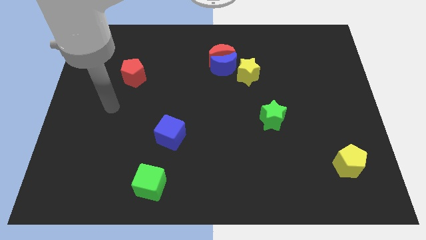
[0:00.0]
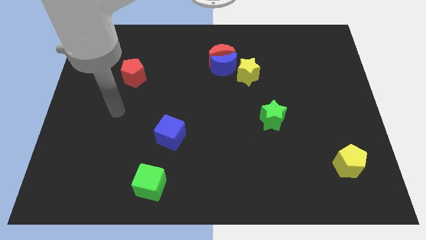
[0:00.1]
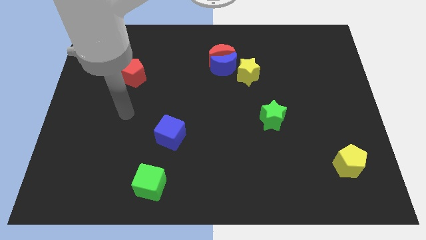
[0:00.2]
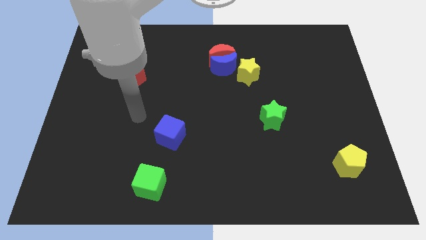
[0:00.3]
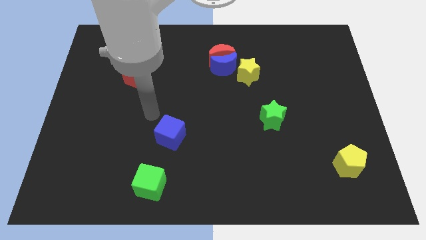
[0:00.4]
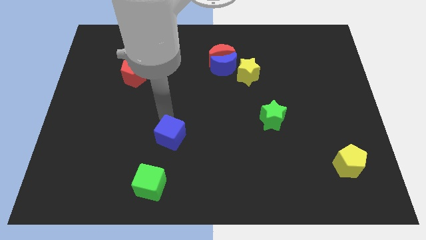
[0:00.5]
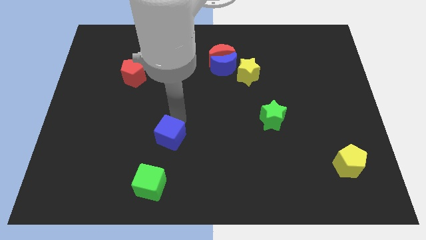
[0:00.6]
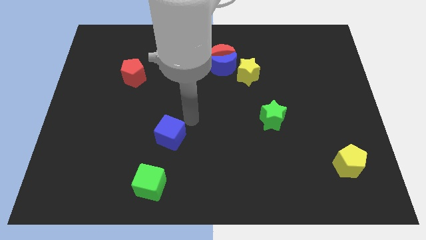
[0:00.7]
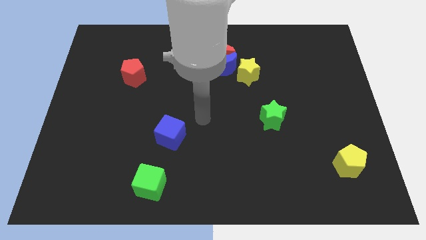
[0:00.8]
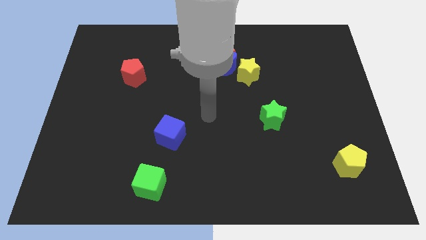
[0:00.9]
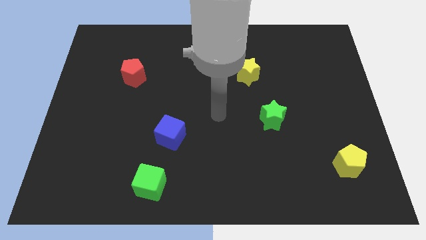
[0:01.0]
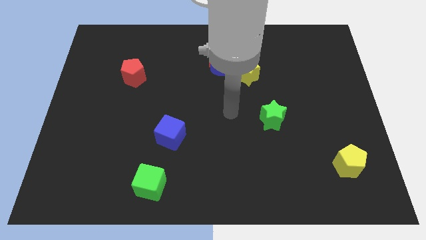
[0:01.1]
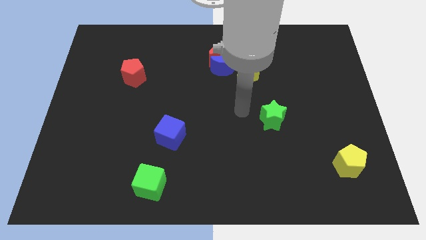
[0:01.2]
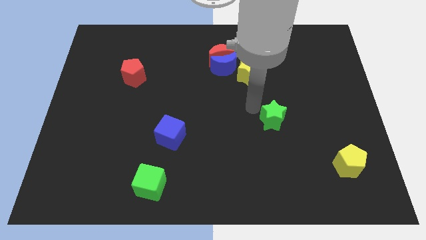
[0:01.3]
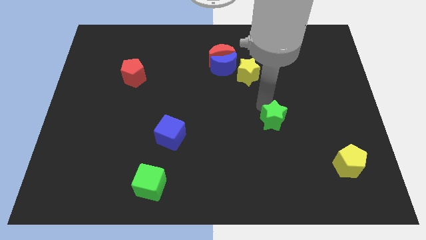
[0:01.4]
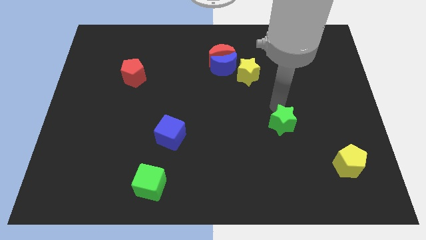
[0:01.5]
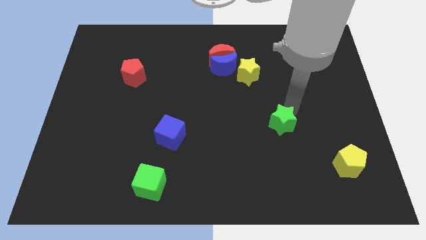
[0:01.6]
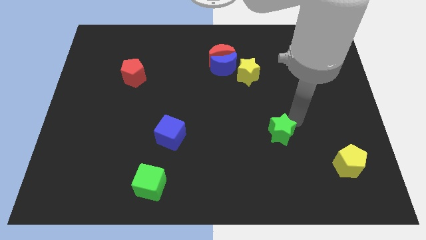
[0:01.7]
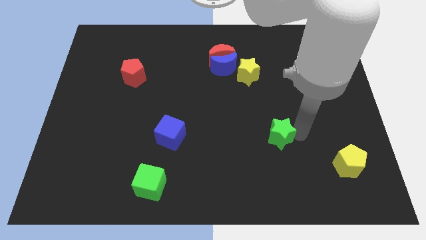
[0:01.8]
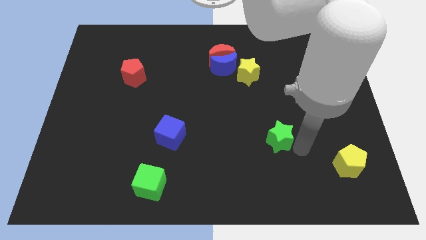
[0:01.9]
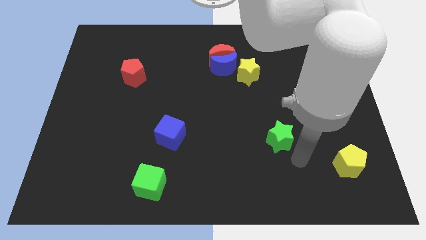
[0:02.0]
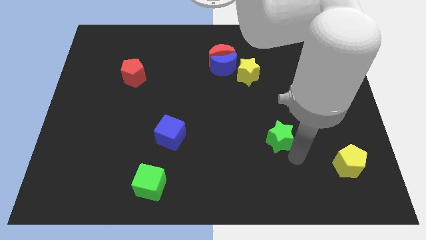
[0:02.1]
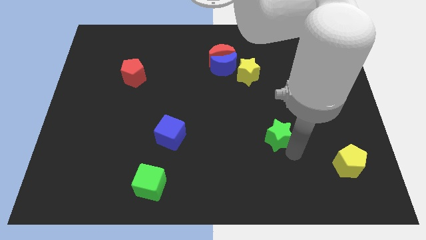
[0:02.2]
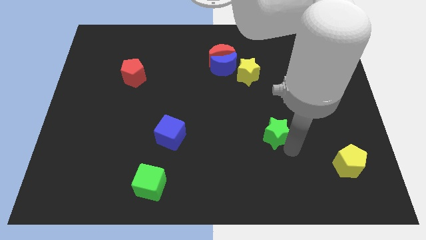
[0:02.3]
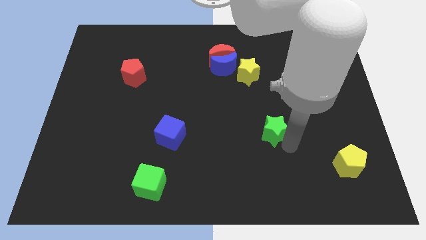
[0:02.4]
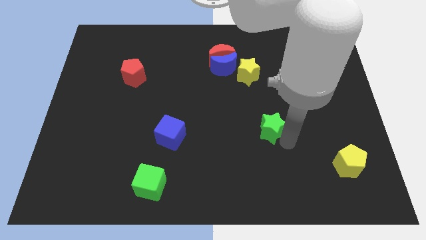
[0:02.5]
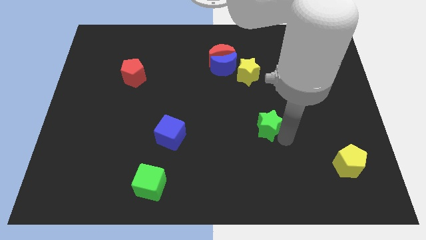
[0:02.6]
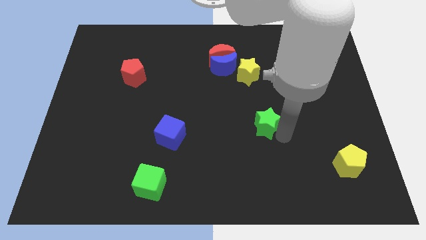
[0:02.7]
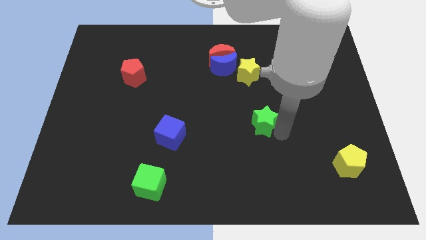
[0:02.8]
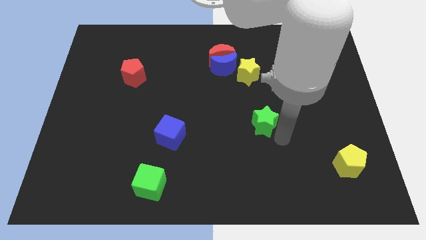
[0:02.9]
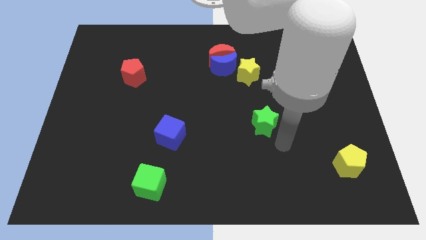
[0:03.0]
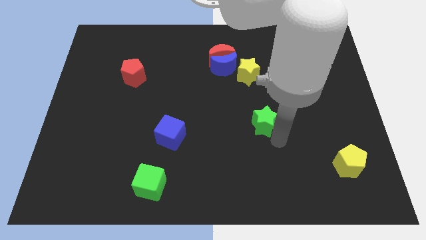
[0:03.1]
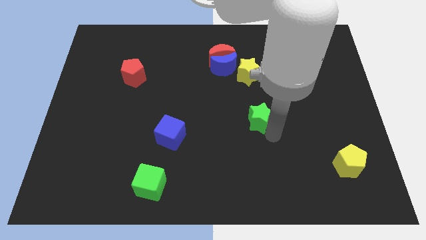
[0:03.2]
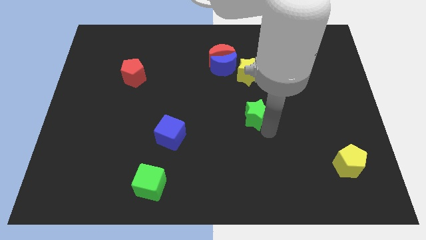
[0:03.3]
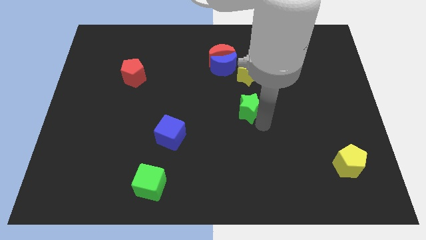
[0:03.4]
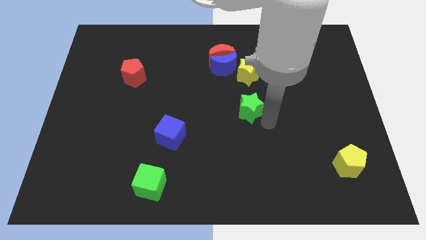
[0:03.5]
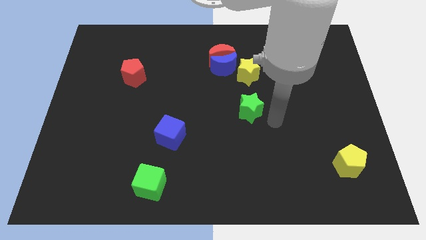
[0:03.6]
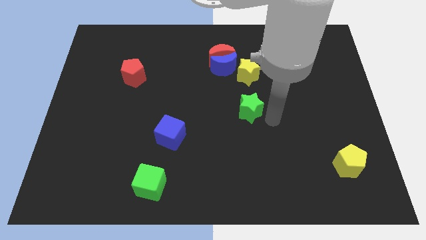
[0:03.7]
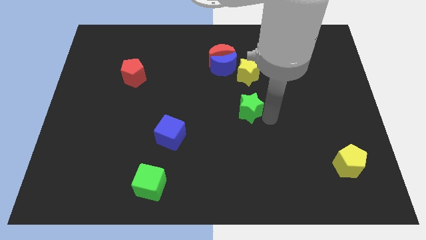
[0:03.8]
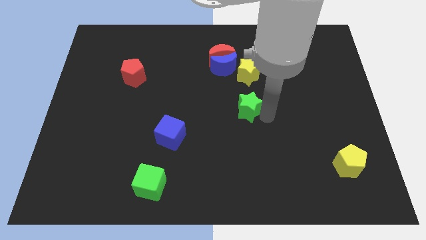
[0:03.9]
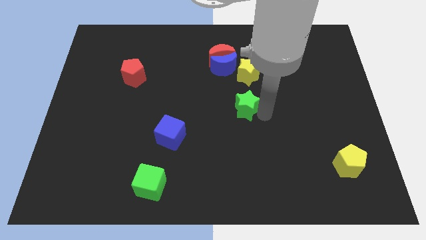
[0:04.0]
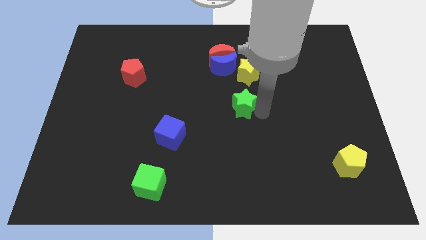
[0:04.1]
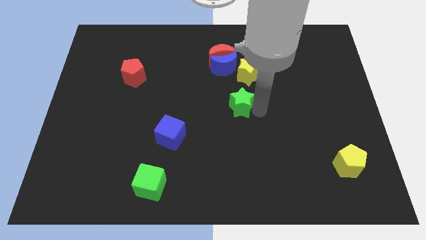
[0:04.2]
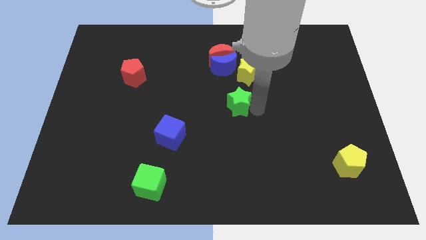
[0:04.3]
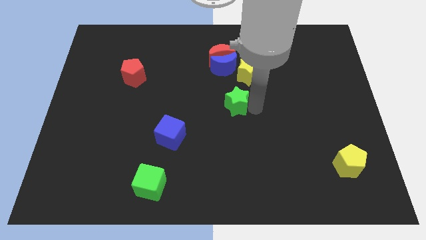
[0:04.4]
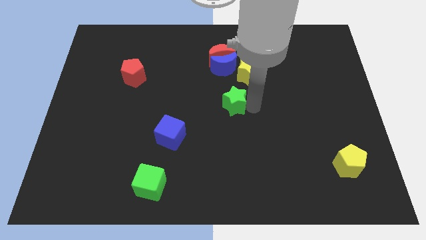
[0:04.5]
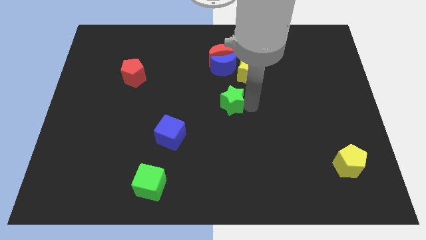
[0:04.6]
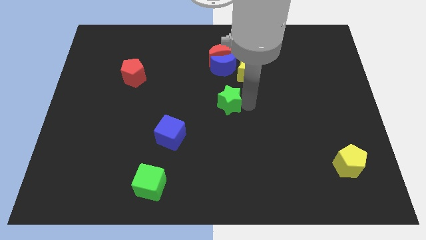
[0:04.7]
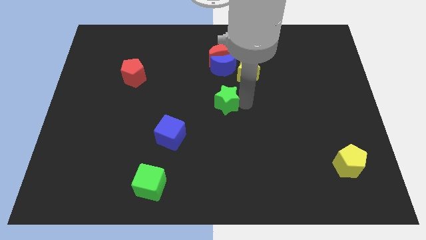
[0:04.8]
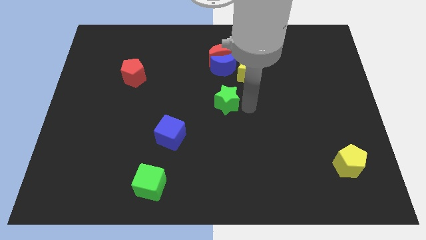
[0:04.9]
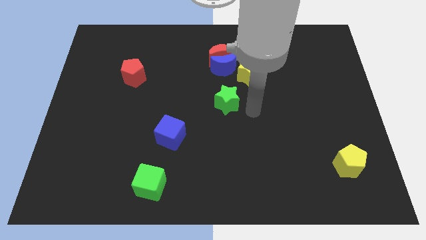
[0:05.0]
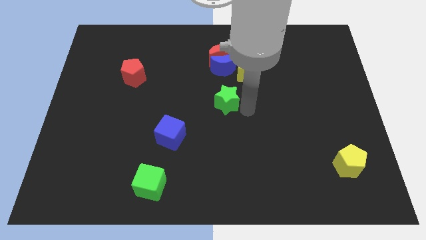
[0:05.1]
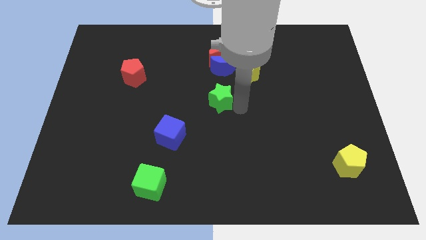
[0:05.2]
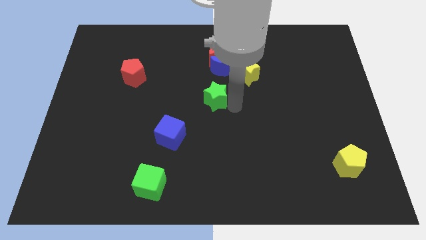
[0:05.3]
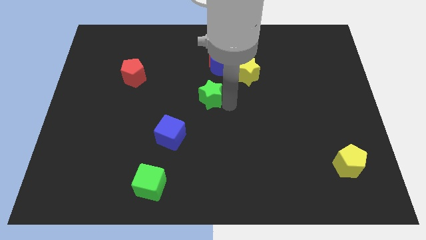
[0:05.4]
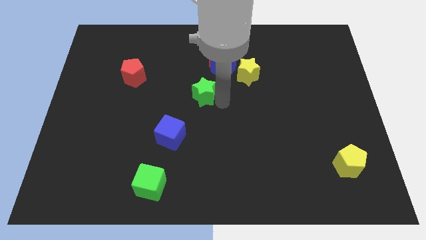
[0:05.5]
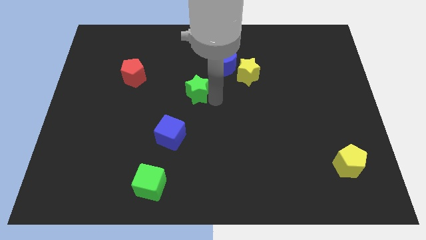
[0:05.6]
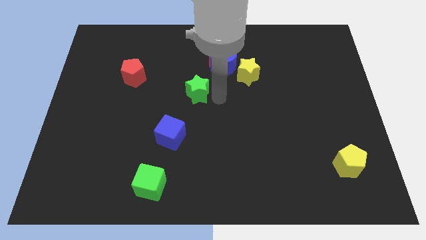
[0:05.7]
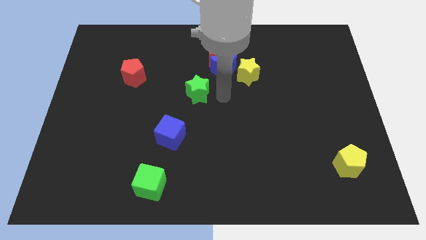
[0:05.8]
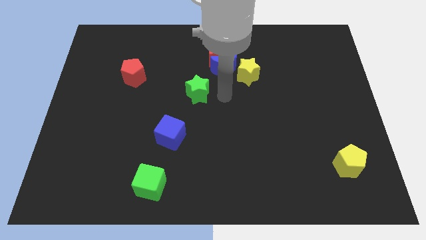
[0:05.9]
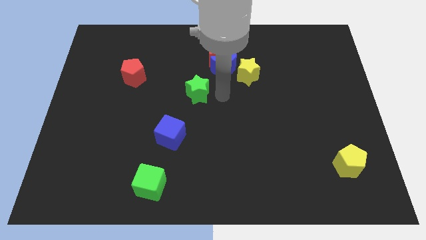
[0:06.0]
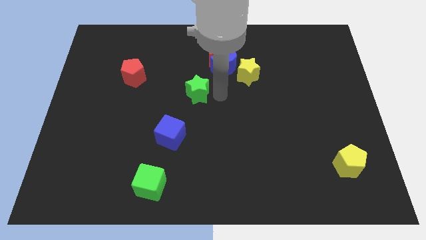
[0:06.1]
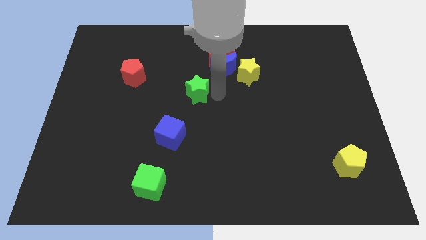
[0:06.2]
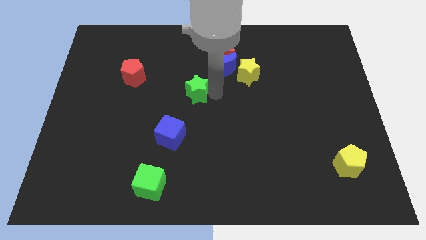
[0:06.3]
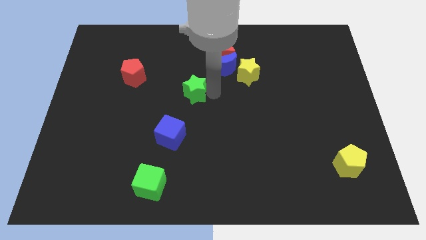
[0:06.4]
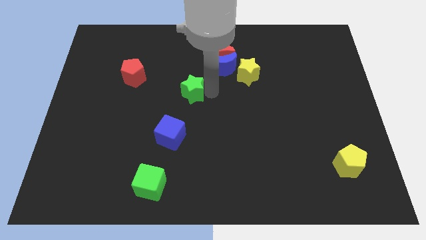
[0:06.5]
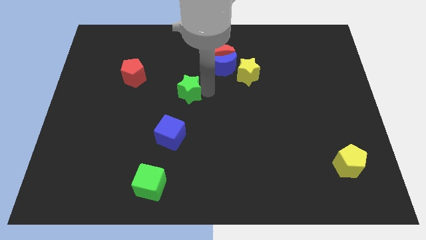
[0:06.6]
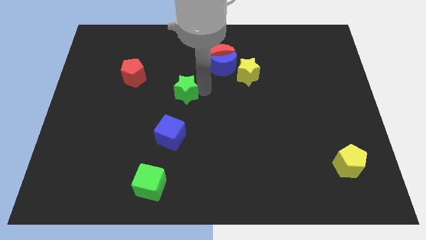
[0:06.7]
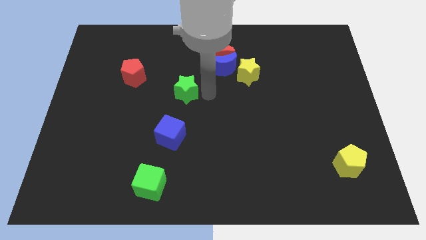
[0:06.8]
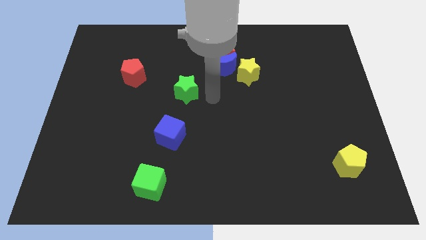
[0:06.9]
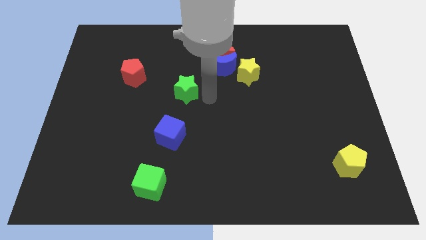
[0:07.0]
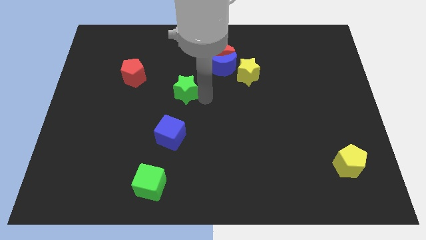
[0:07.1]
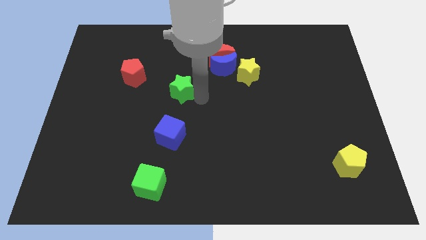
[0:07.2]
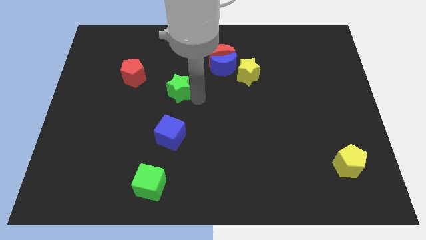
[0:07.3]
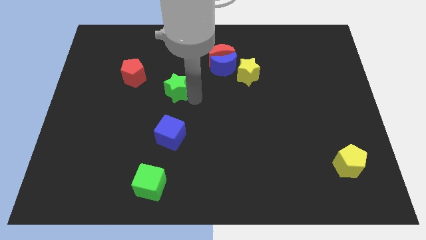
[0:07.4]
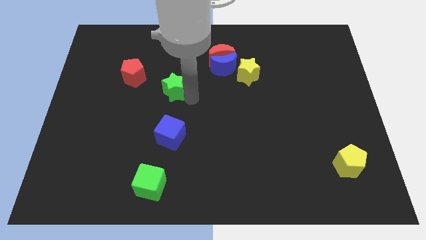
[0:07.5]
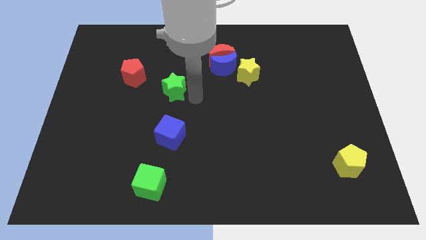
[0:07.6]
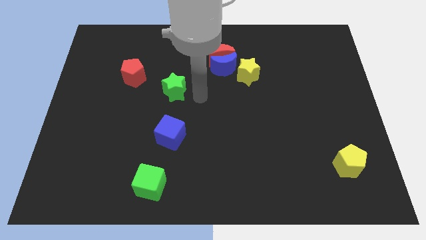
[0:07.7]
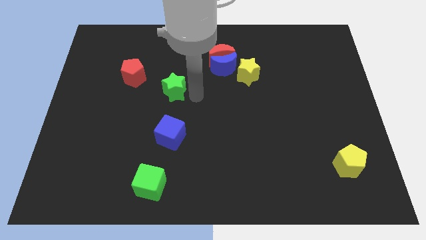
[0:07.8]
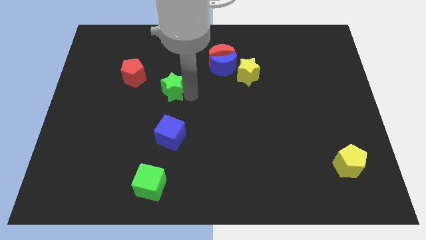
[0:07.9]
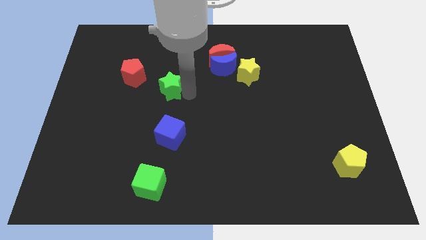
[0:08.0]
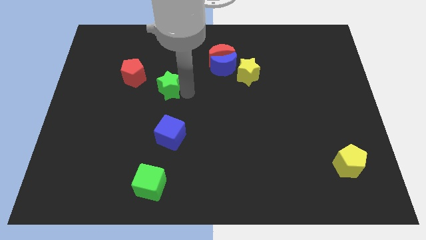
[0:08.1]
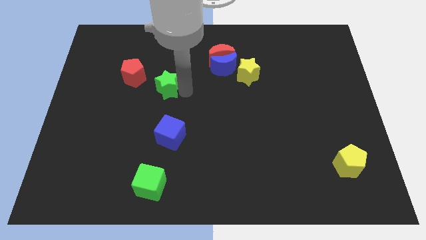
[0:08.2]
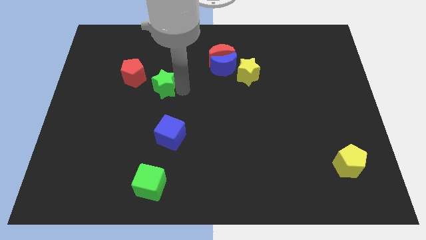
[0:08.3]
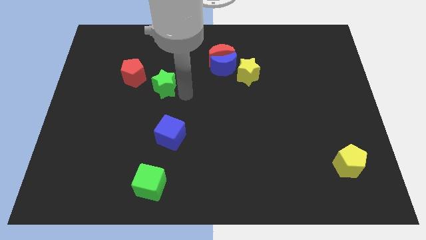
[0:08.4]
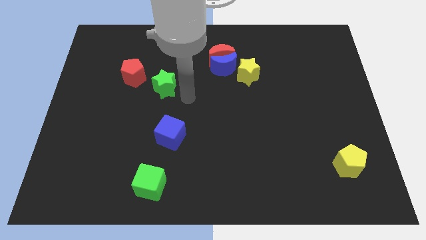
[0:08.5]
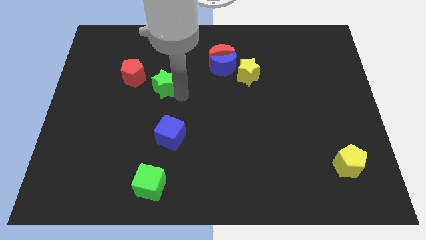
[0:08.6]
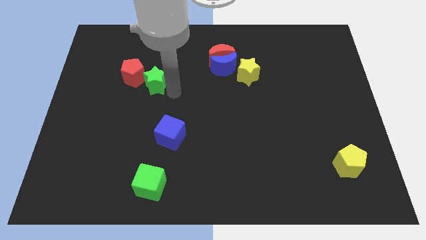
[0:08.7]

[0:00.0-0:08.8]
push the green star close to the red pentagon
